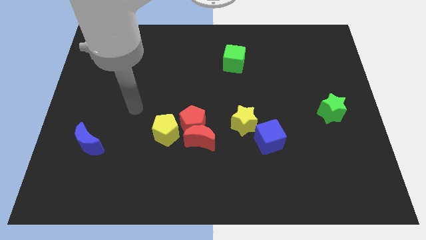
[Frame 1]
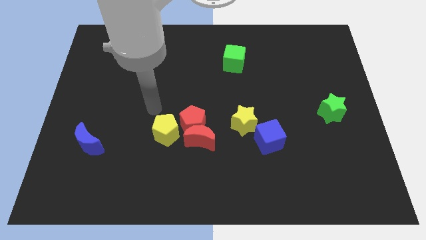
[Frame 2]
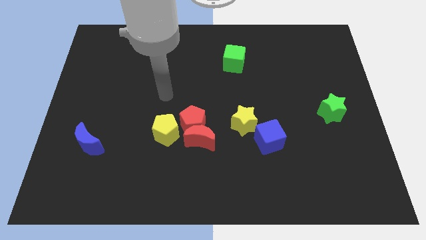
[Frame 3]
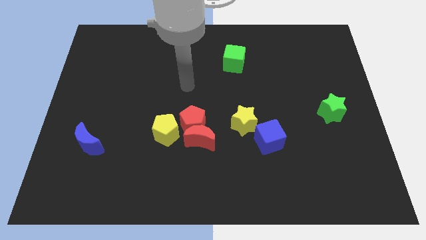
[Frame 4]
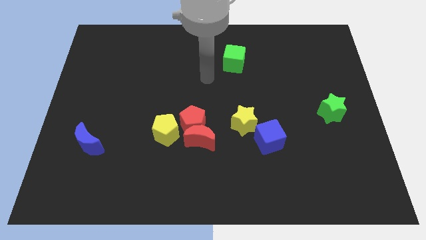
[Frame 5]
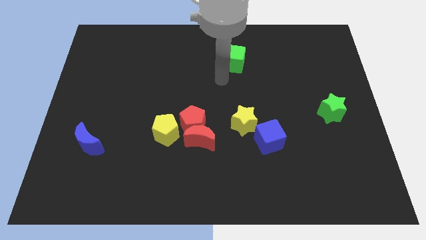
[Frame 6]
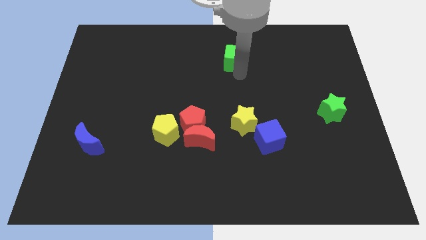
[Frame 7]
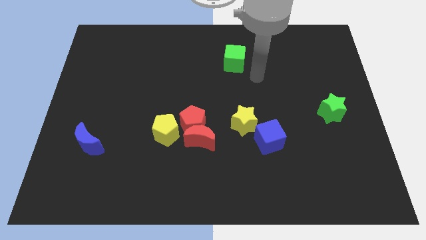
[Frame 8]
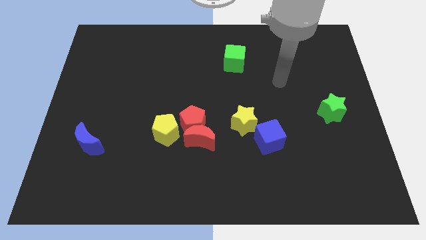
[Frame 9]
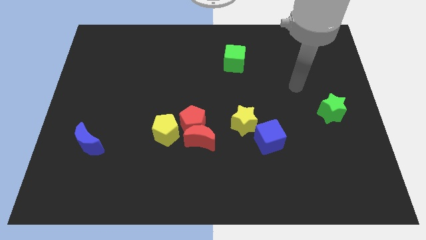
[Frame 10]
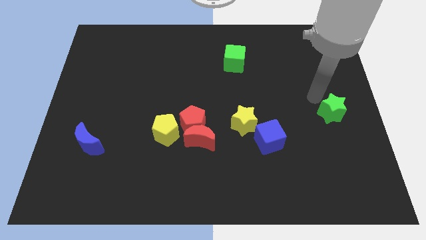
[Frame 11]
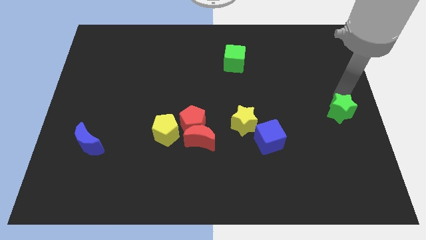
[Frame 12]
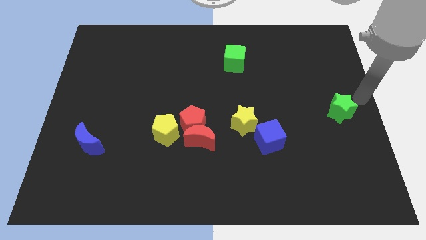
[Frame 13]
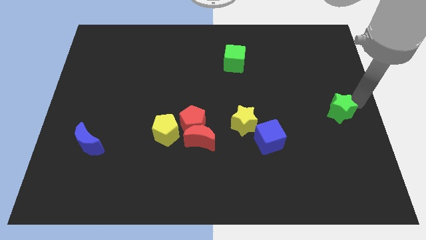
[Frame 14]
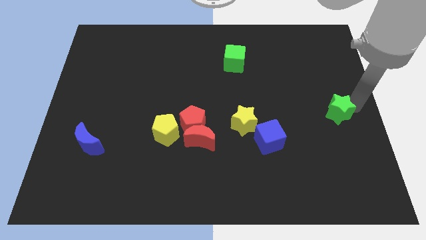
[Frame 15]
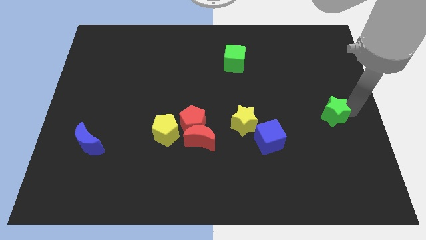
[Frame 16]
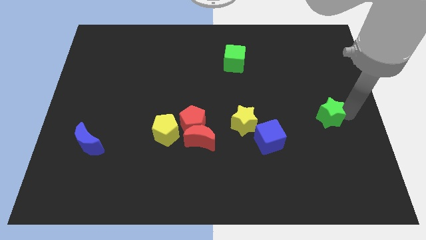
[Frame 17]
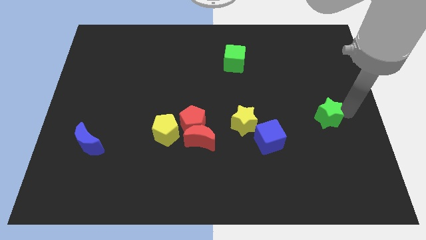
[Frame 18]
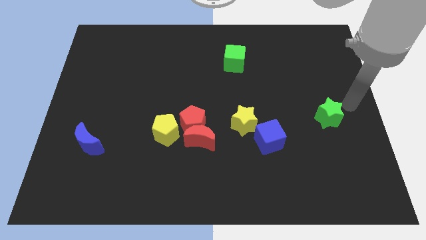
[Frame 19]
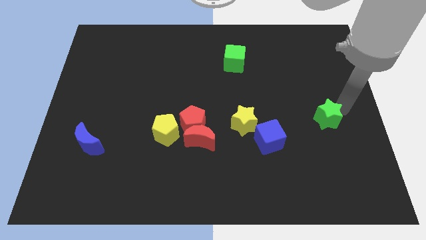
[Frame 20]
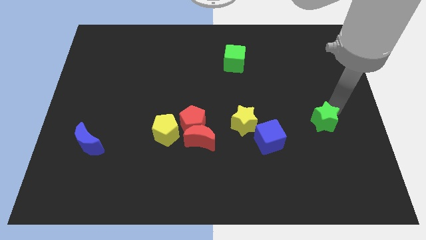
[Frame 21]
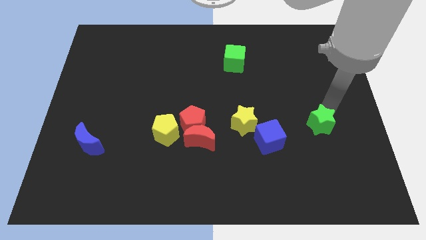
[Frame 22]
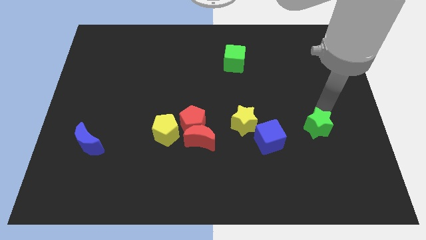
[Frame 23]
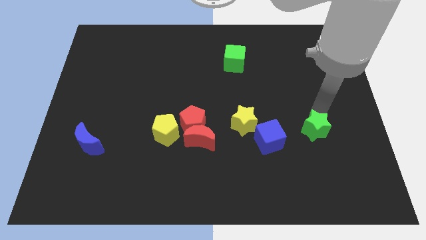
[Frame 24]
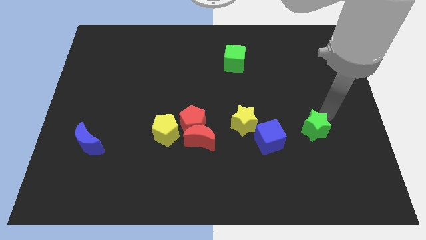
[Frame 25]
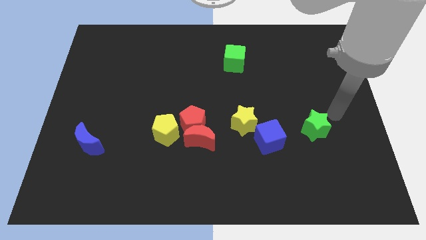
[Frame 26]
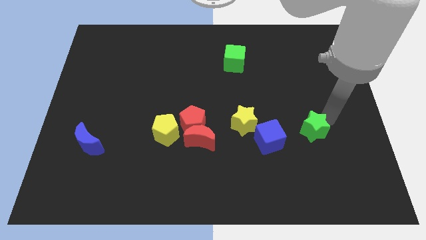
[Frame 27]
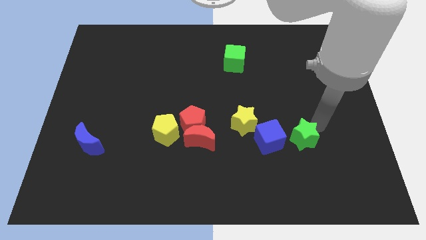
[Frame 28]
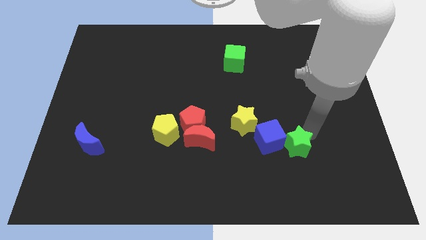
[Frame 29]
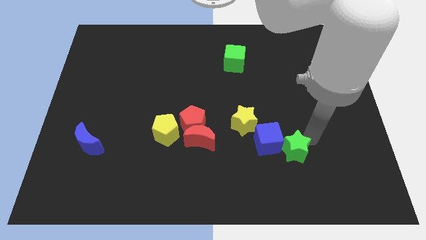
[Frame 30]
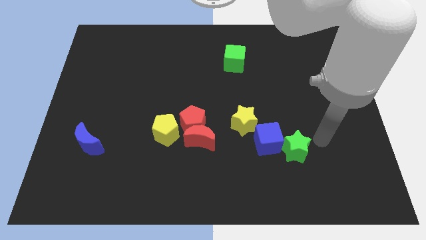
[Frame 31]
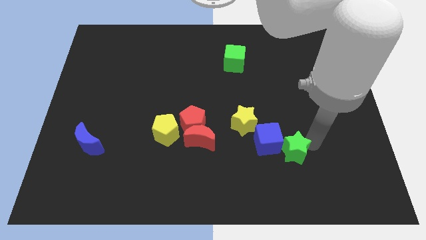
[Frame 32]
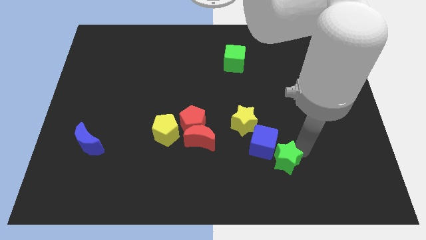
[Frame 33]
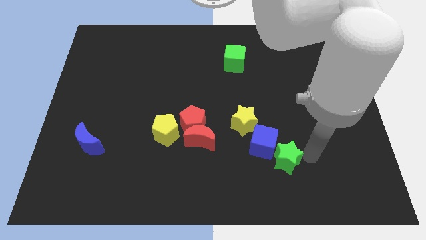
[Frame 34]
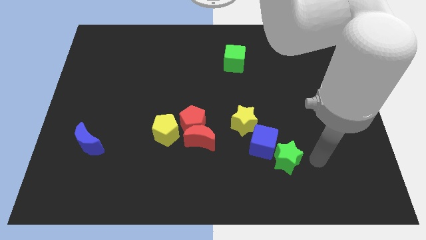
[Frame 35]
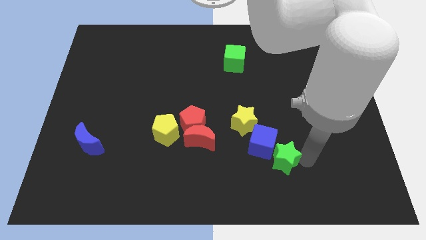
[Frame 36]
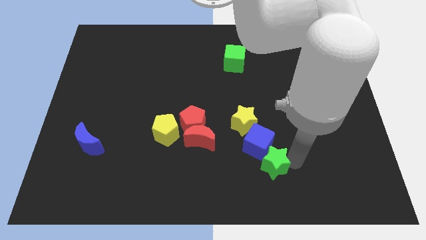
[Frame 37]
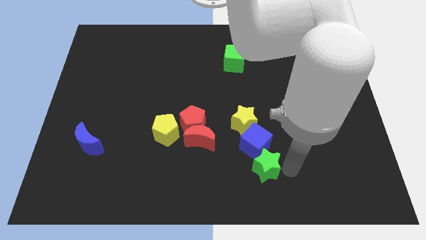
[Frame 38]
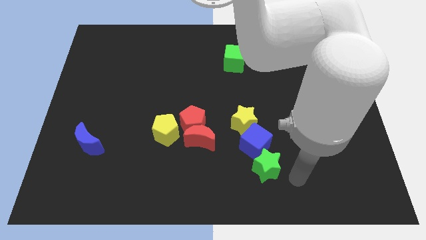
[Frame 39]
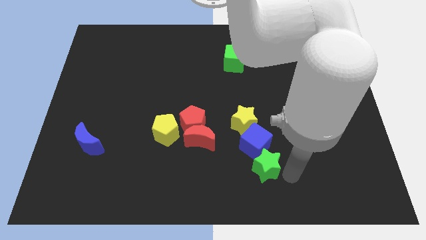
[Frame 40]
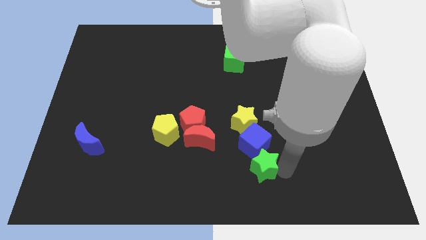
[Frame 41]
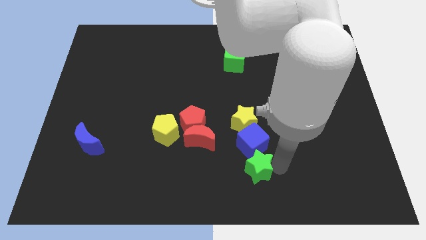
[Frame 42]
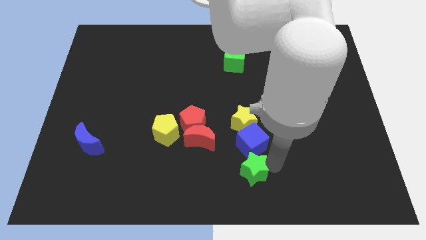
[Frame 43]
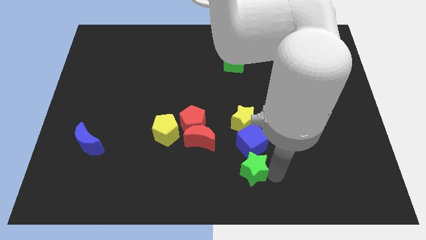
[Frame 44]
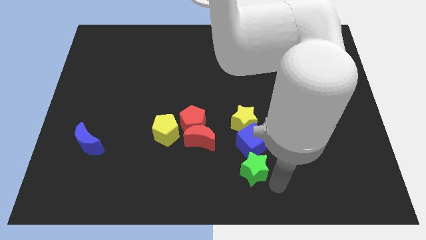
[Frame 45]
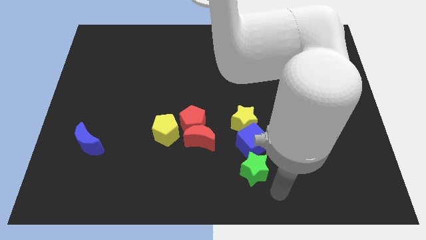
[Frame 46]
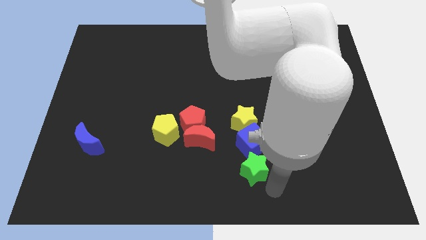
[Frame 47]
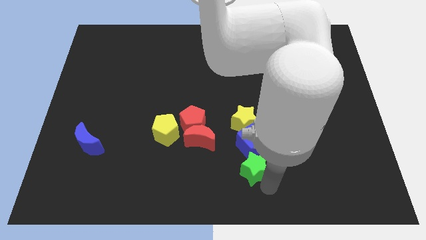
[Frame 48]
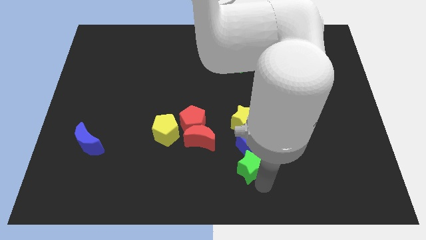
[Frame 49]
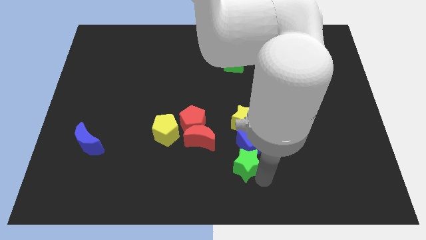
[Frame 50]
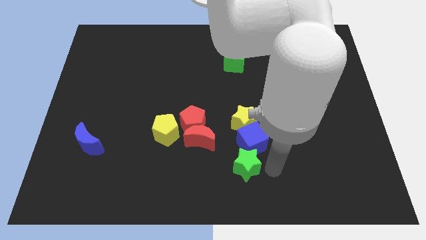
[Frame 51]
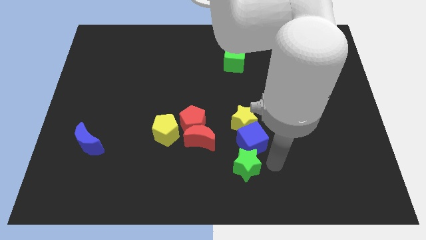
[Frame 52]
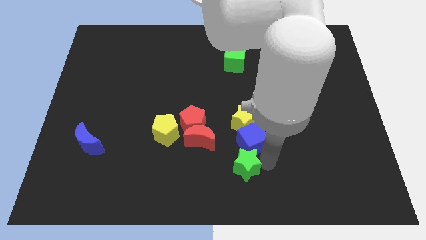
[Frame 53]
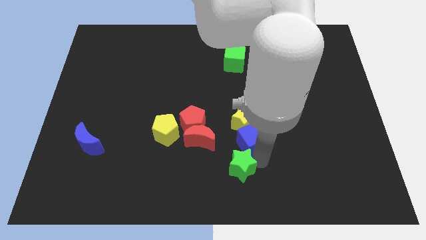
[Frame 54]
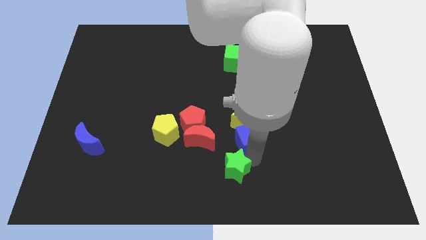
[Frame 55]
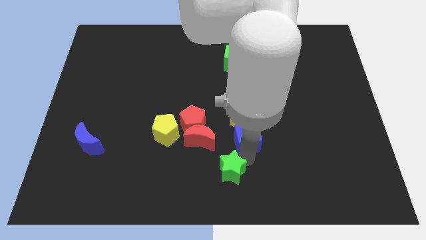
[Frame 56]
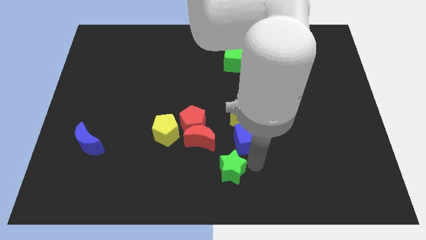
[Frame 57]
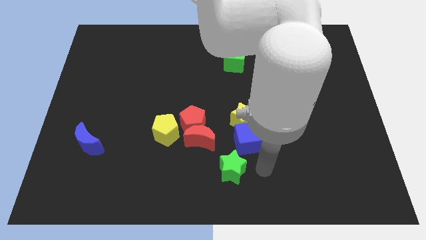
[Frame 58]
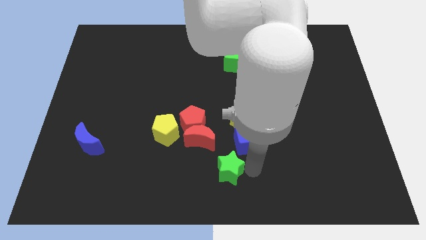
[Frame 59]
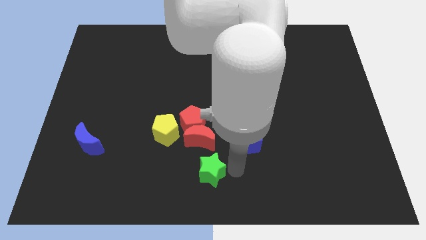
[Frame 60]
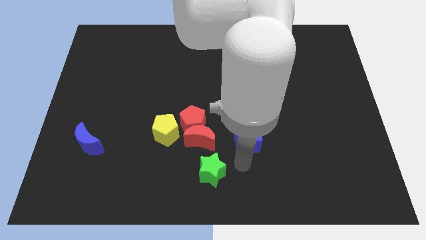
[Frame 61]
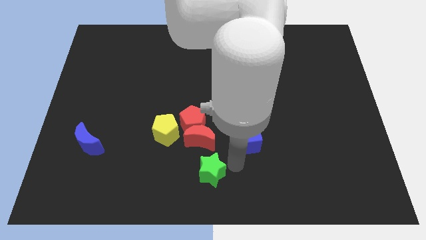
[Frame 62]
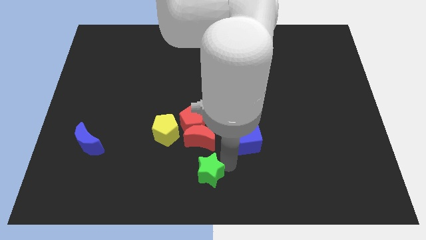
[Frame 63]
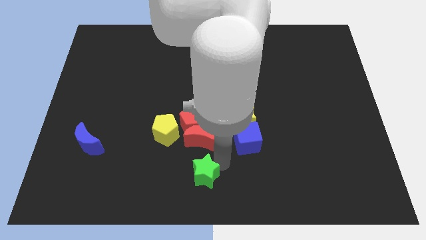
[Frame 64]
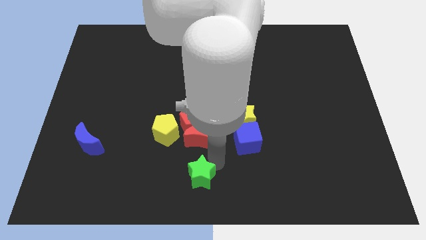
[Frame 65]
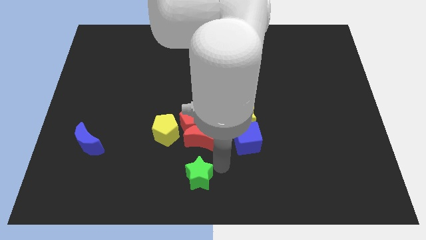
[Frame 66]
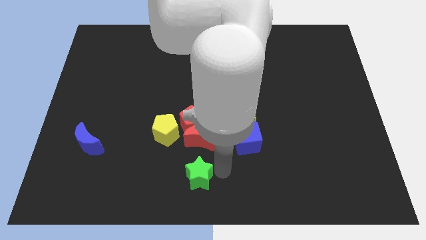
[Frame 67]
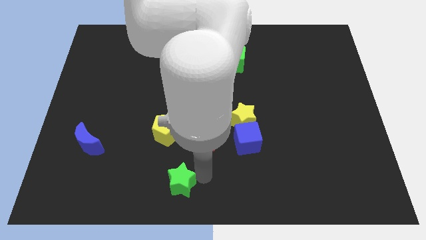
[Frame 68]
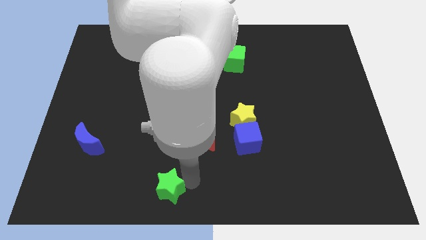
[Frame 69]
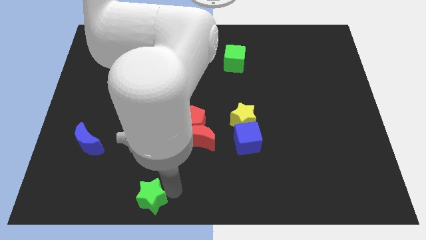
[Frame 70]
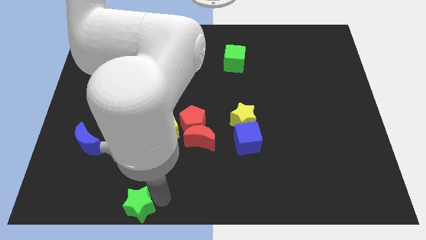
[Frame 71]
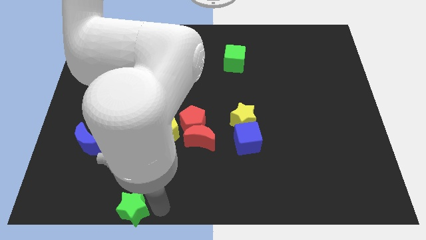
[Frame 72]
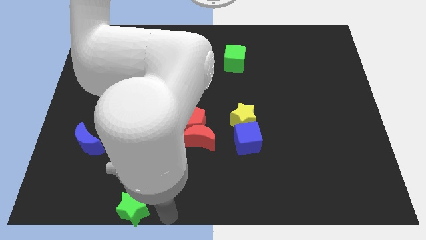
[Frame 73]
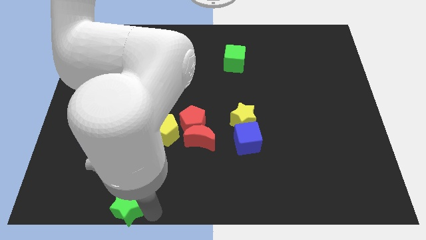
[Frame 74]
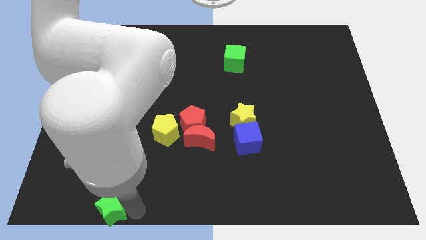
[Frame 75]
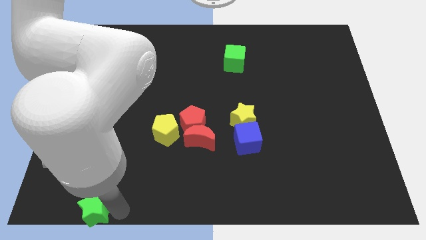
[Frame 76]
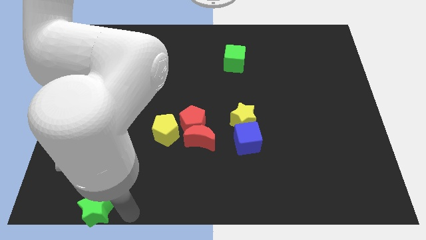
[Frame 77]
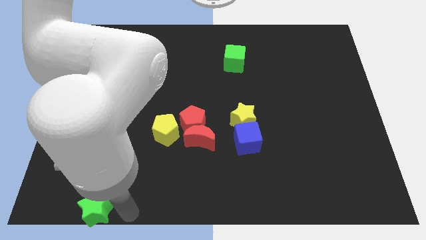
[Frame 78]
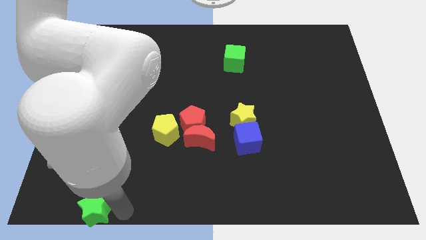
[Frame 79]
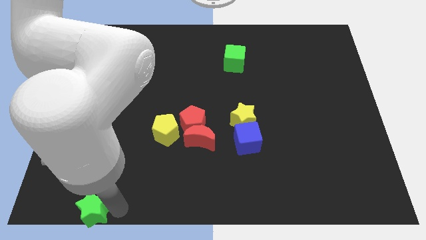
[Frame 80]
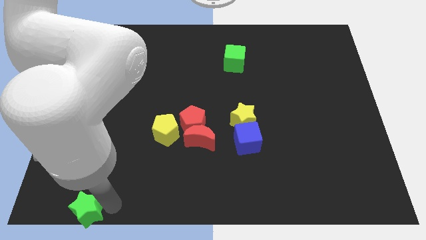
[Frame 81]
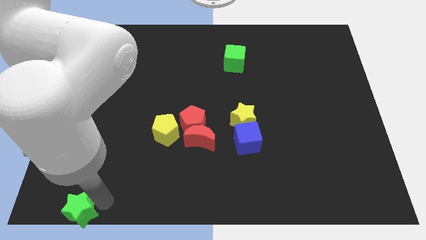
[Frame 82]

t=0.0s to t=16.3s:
slide the green star to the bottom left of the board
